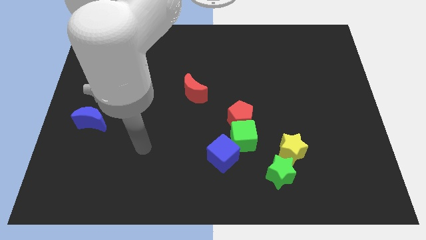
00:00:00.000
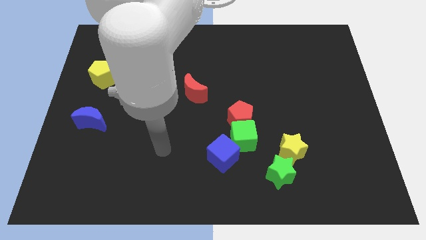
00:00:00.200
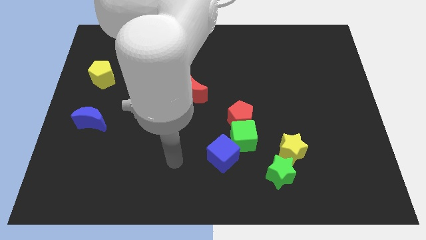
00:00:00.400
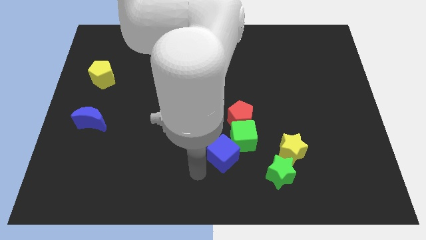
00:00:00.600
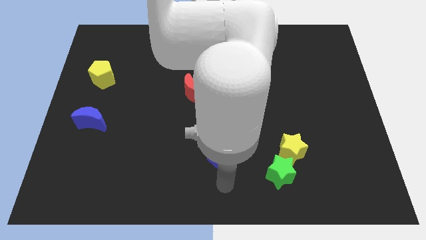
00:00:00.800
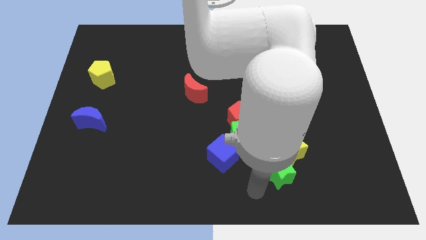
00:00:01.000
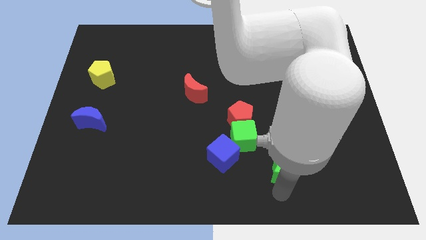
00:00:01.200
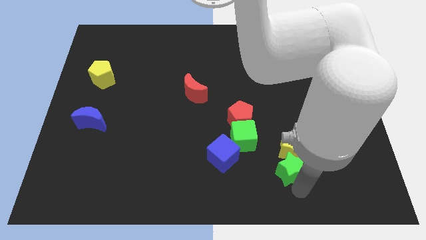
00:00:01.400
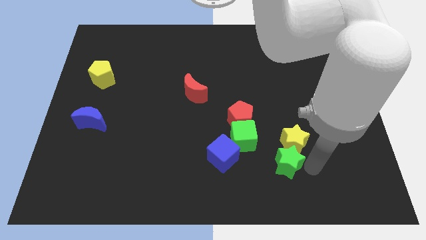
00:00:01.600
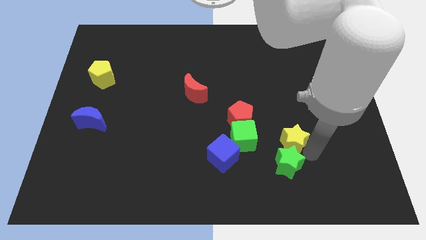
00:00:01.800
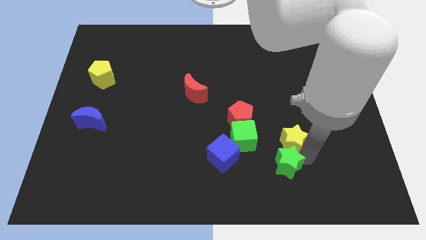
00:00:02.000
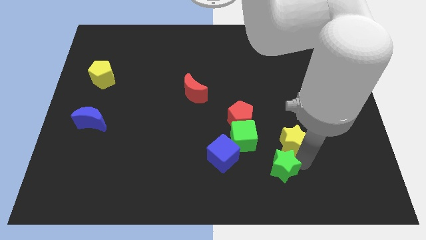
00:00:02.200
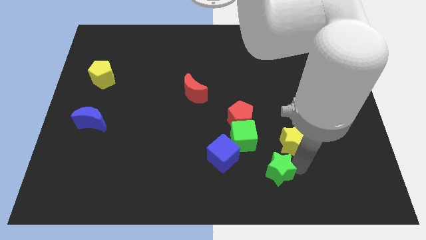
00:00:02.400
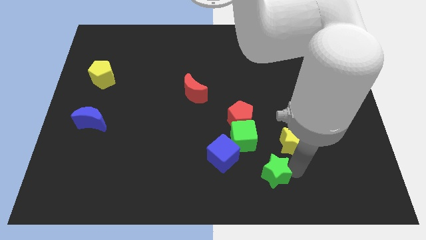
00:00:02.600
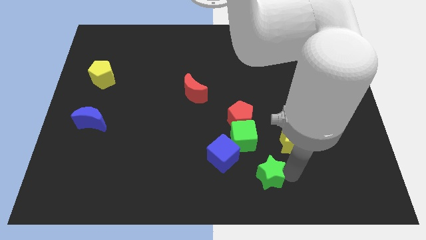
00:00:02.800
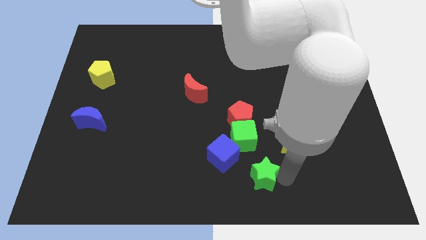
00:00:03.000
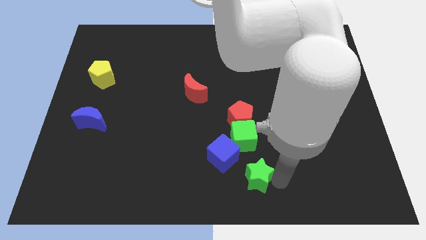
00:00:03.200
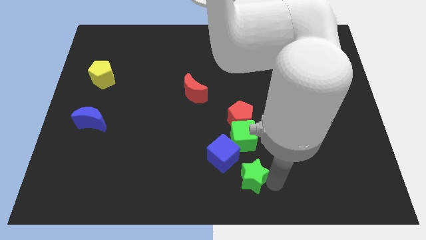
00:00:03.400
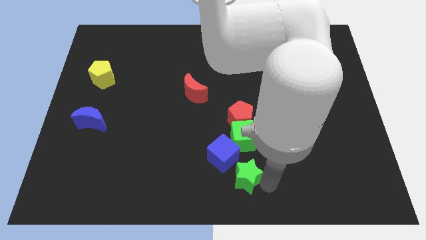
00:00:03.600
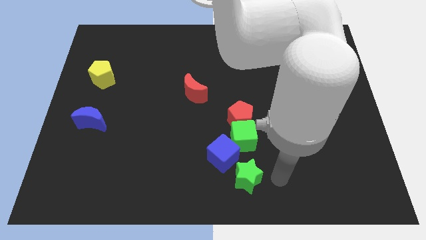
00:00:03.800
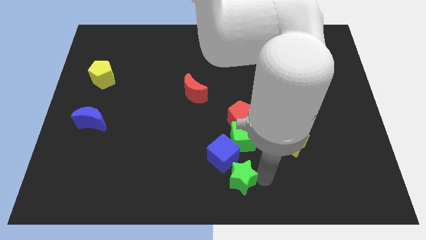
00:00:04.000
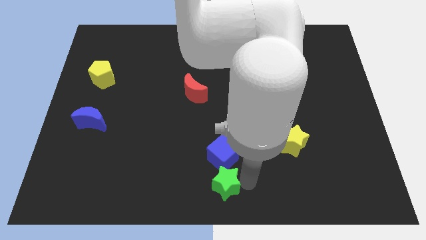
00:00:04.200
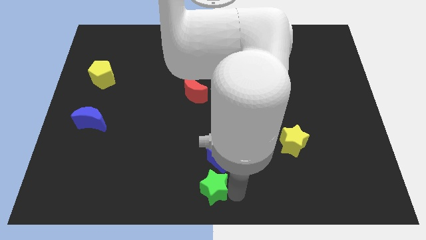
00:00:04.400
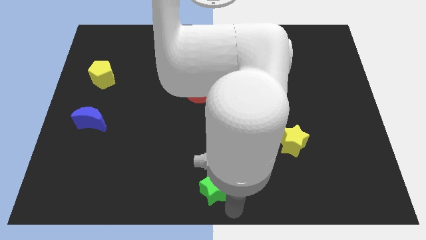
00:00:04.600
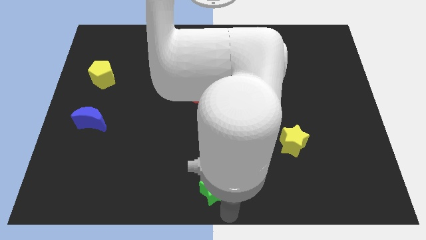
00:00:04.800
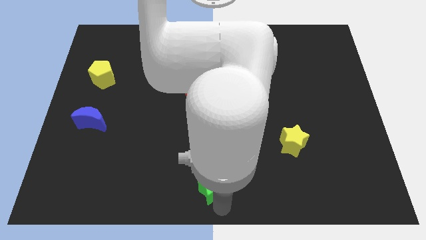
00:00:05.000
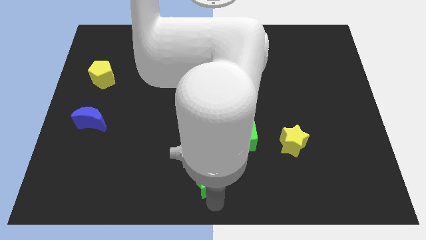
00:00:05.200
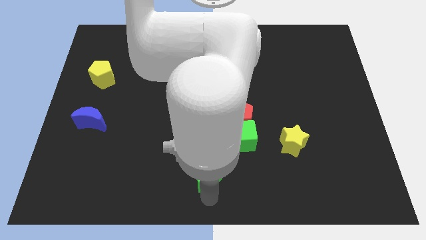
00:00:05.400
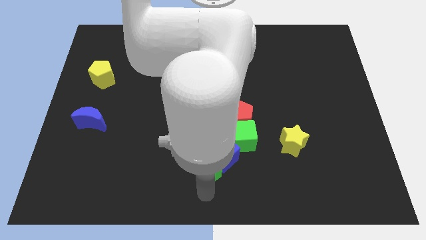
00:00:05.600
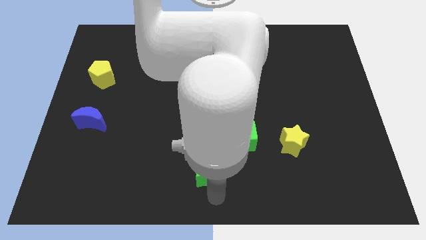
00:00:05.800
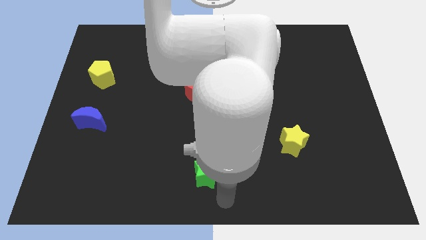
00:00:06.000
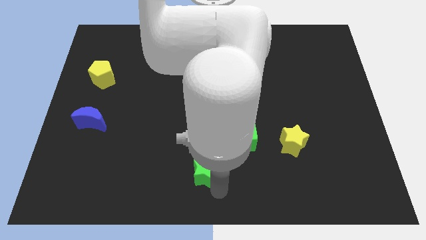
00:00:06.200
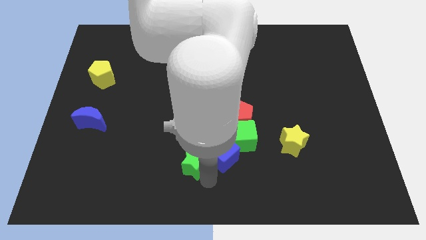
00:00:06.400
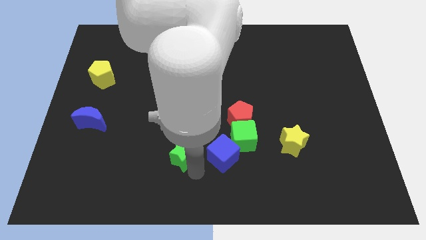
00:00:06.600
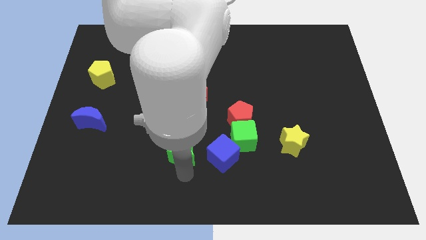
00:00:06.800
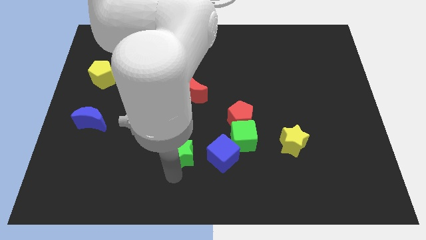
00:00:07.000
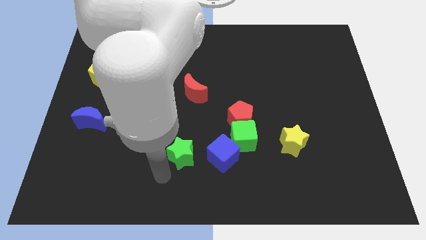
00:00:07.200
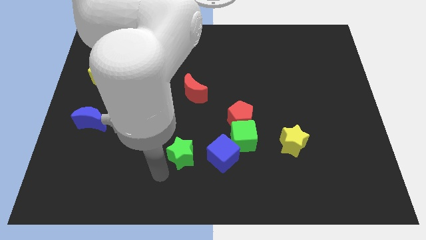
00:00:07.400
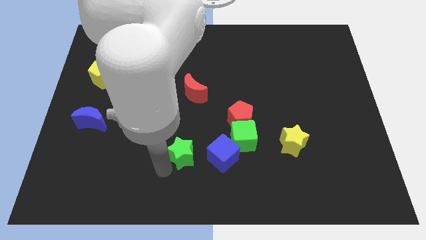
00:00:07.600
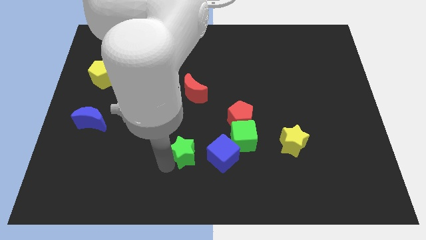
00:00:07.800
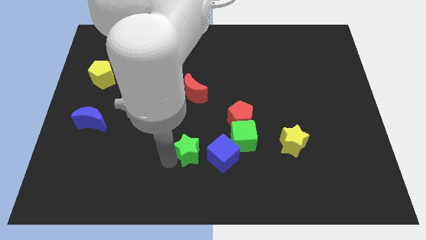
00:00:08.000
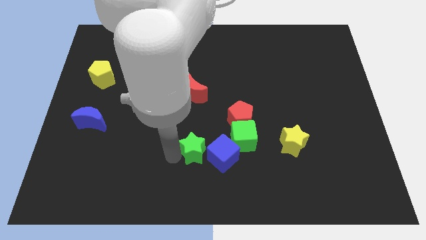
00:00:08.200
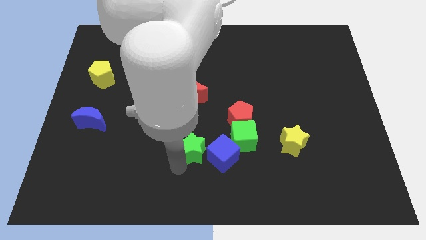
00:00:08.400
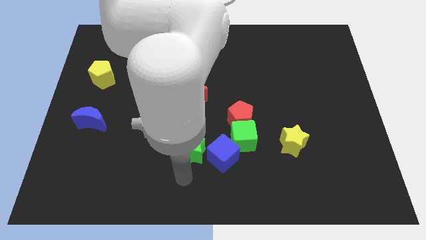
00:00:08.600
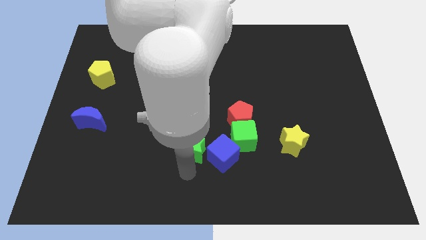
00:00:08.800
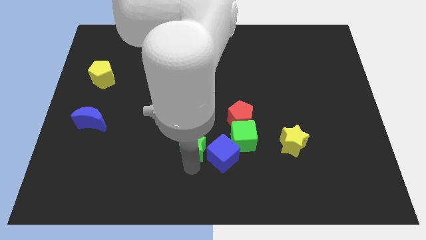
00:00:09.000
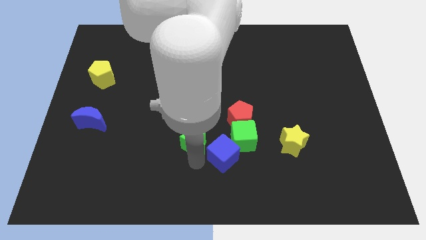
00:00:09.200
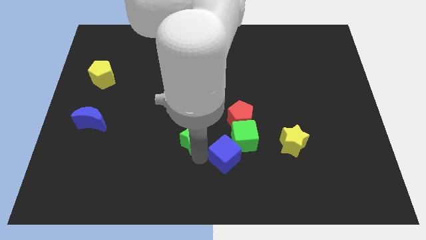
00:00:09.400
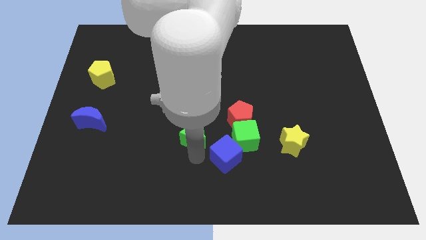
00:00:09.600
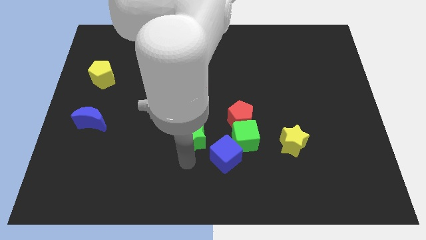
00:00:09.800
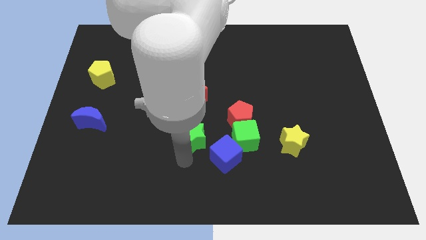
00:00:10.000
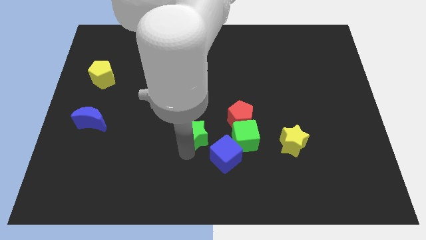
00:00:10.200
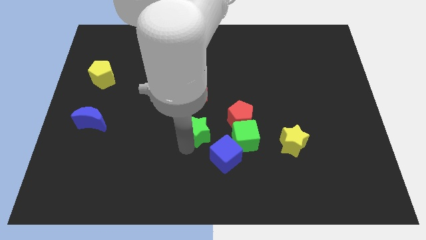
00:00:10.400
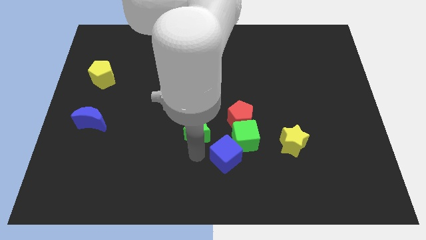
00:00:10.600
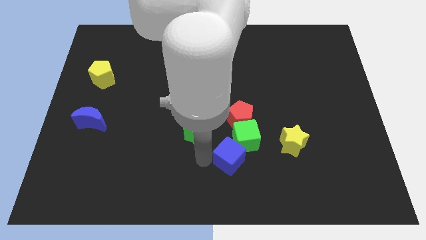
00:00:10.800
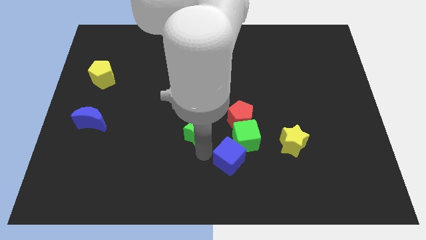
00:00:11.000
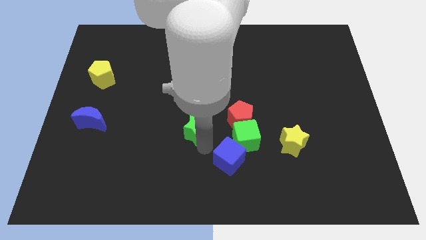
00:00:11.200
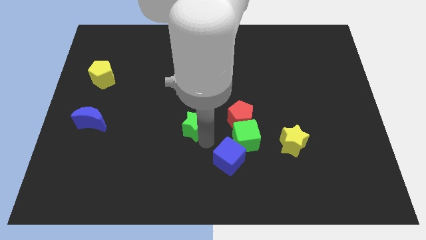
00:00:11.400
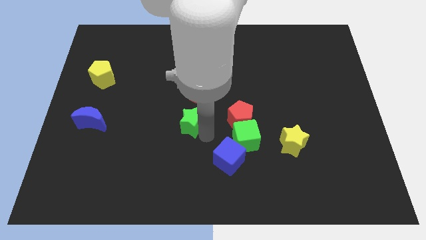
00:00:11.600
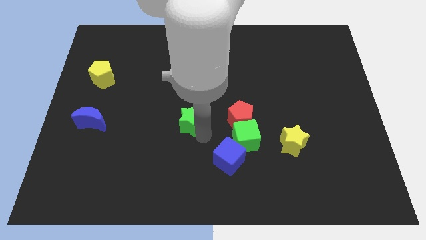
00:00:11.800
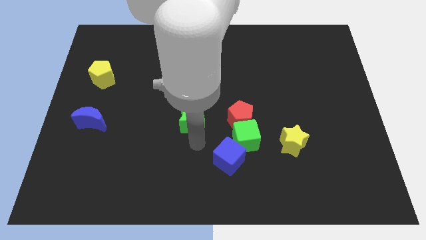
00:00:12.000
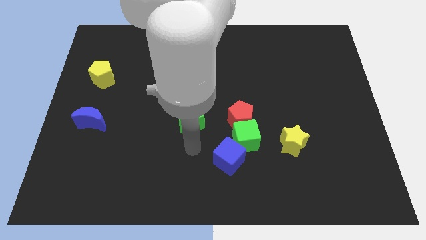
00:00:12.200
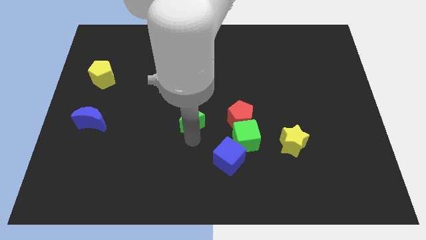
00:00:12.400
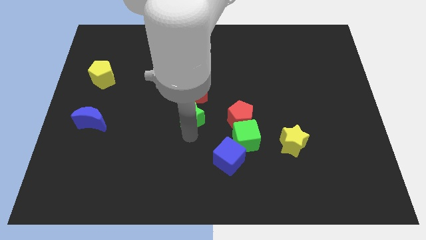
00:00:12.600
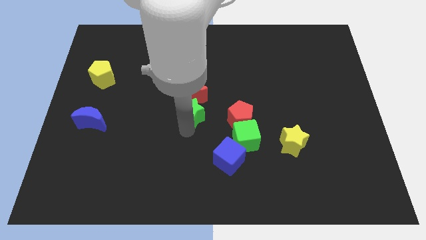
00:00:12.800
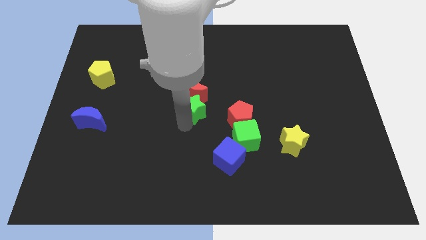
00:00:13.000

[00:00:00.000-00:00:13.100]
move the green star next to the red moon

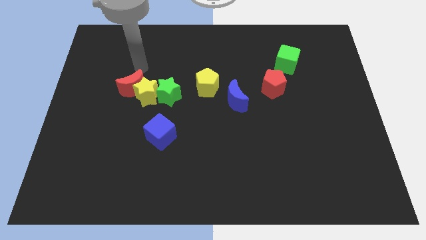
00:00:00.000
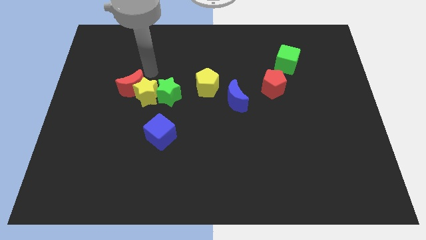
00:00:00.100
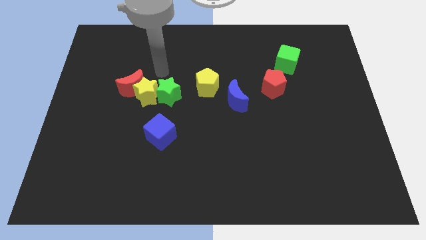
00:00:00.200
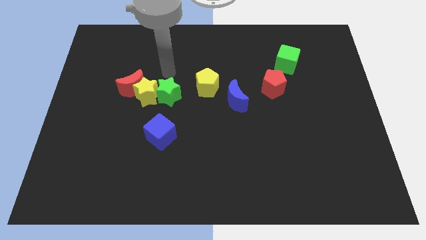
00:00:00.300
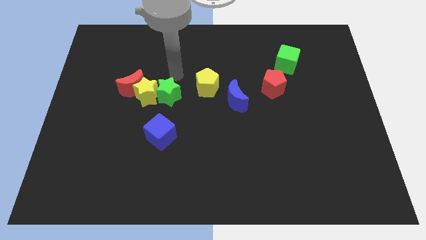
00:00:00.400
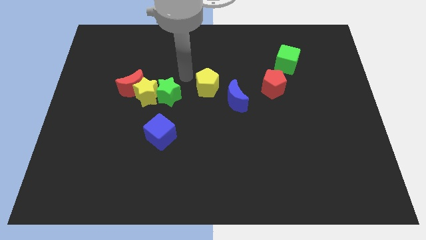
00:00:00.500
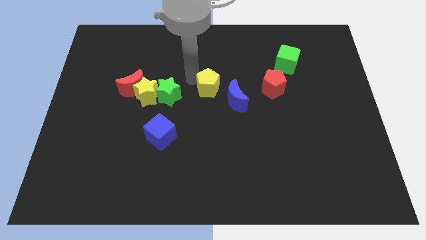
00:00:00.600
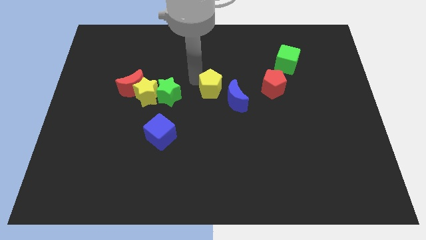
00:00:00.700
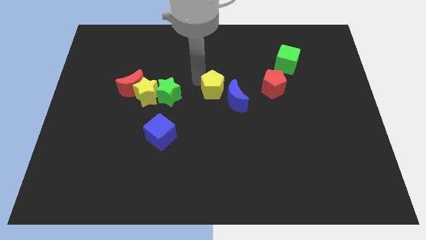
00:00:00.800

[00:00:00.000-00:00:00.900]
push the yellow pentagon to the blue moon
